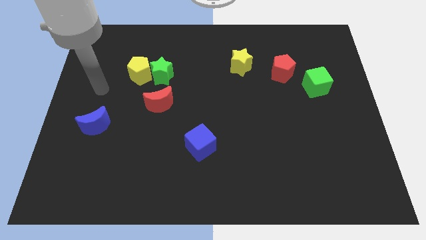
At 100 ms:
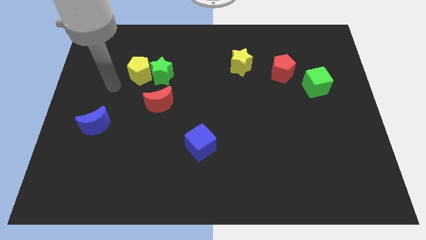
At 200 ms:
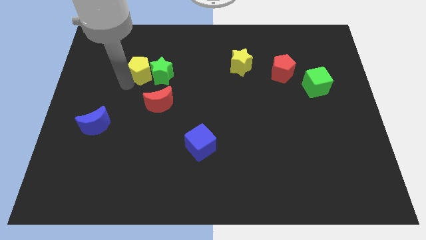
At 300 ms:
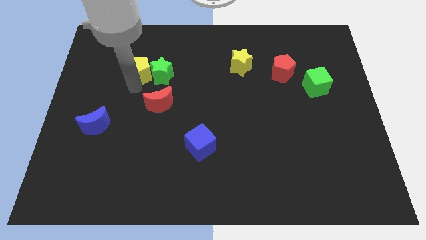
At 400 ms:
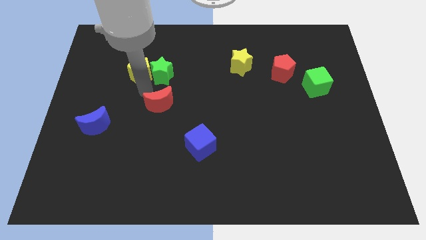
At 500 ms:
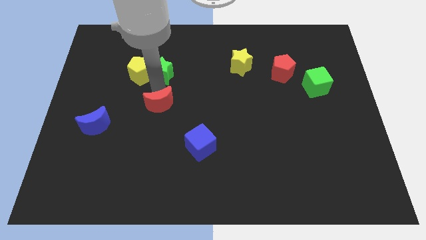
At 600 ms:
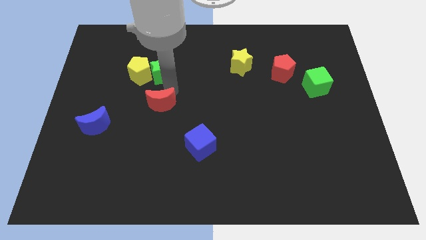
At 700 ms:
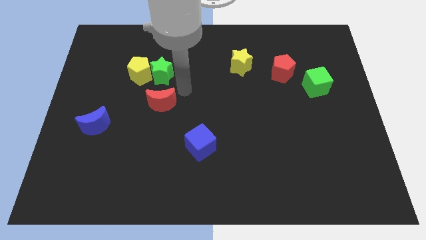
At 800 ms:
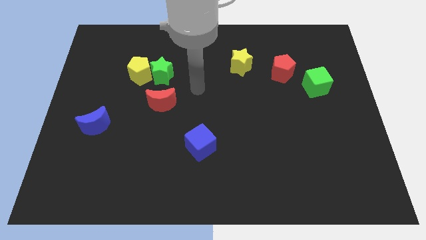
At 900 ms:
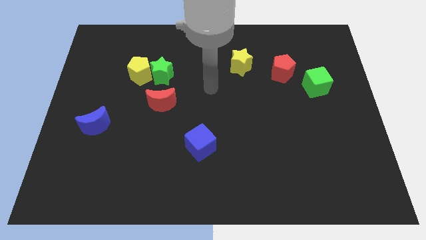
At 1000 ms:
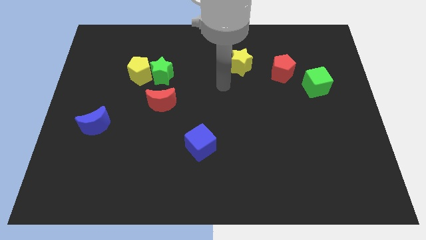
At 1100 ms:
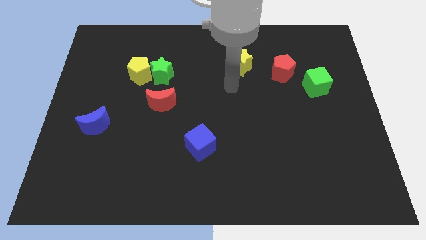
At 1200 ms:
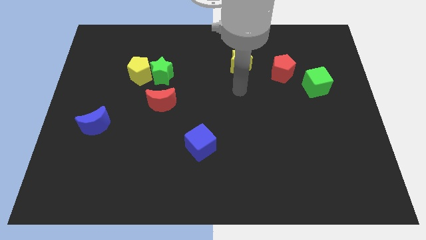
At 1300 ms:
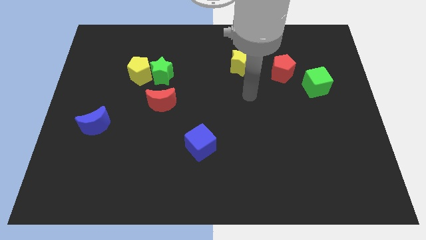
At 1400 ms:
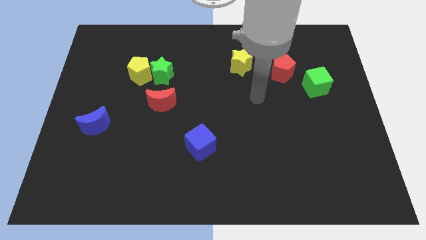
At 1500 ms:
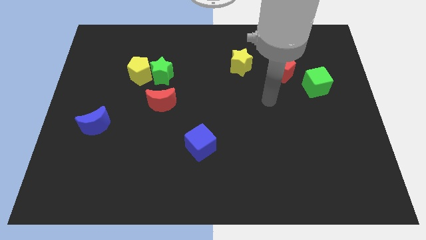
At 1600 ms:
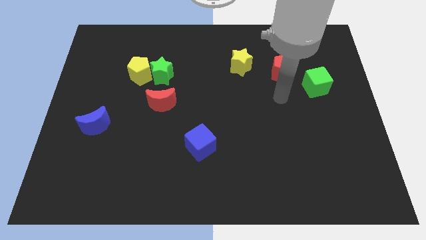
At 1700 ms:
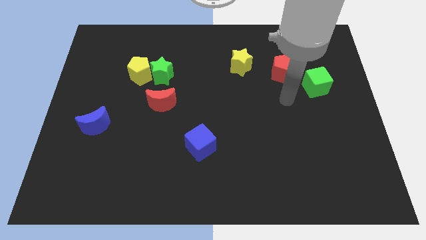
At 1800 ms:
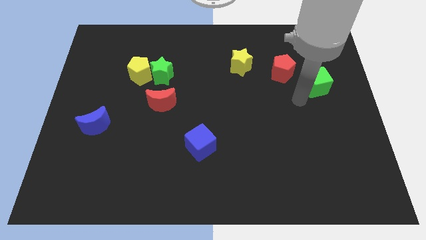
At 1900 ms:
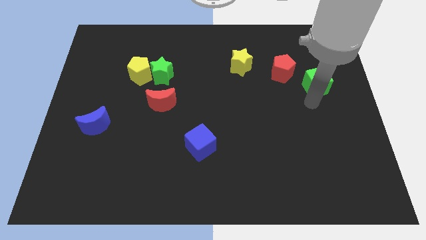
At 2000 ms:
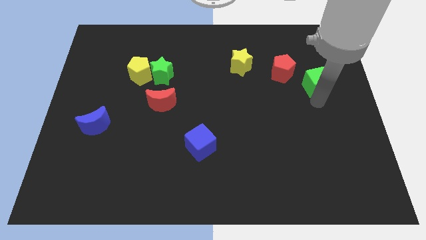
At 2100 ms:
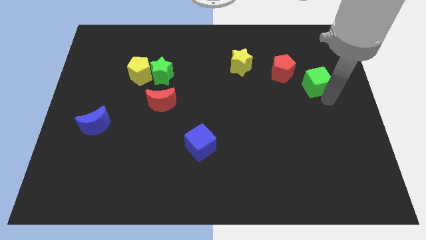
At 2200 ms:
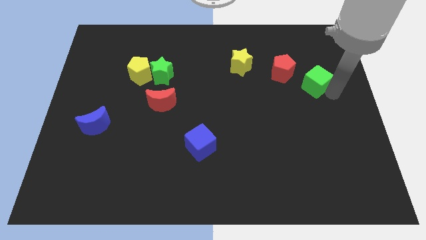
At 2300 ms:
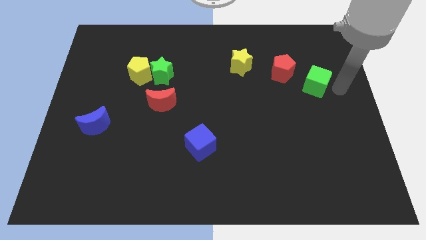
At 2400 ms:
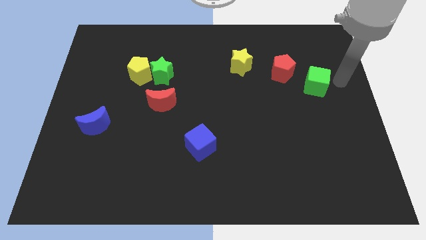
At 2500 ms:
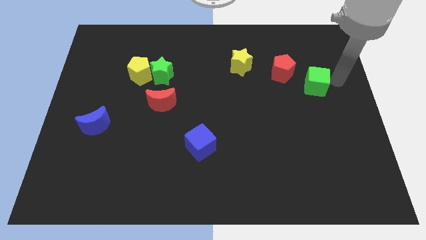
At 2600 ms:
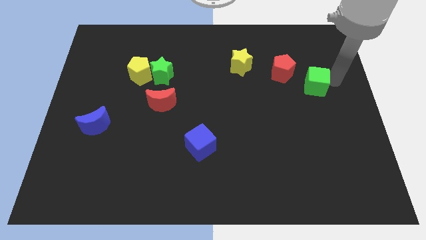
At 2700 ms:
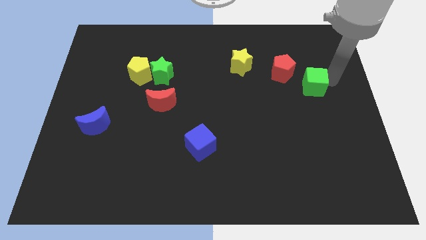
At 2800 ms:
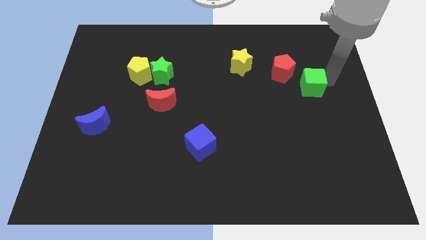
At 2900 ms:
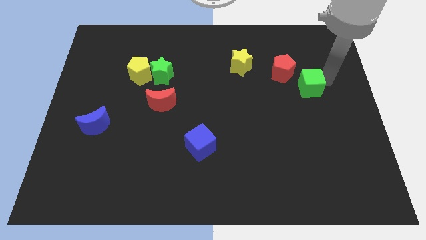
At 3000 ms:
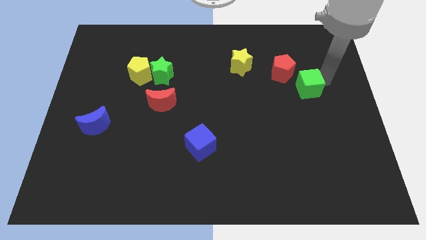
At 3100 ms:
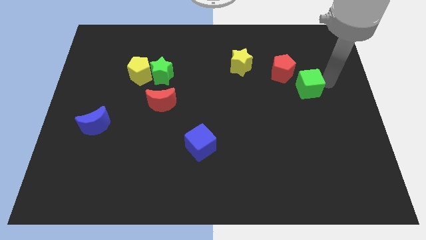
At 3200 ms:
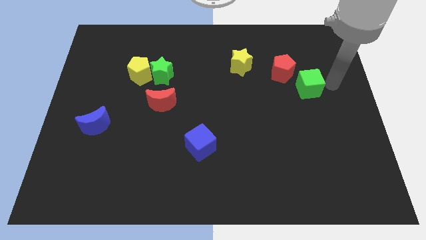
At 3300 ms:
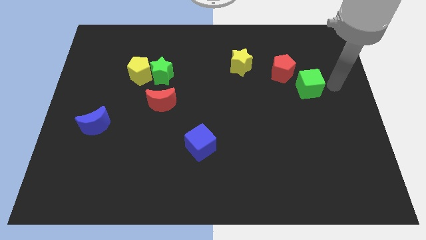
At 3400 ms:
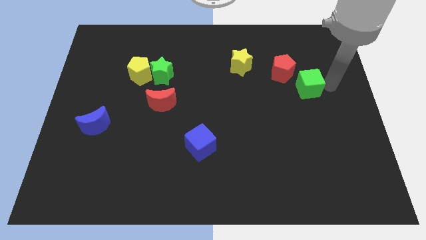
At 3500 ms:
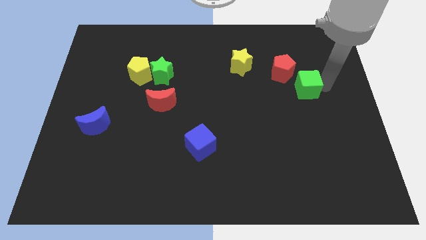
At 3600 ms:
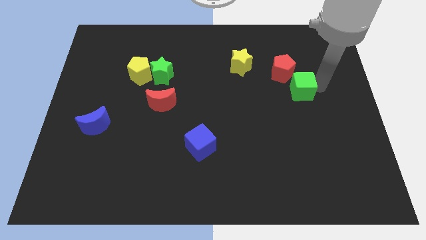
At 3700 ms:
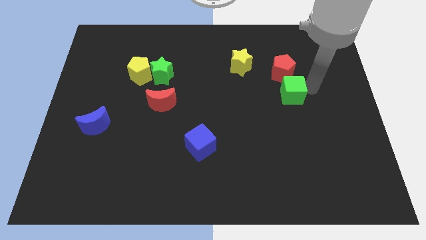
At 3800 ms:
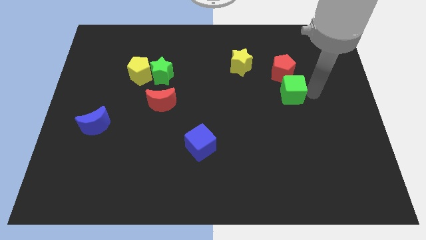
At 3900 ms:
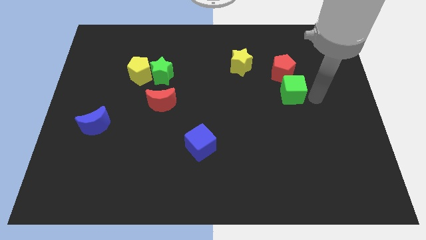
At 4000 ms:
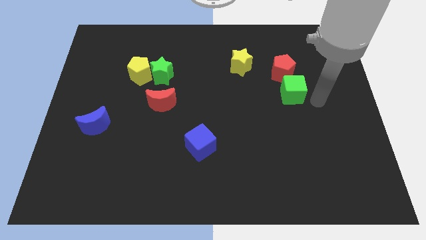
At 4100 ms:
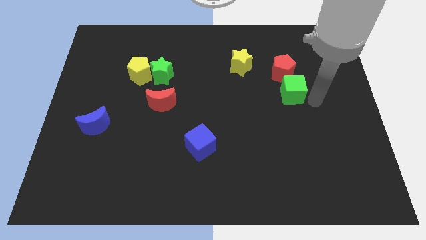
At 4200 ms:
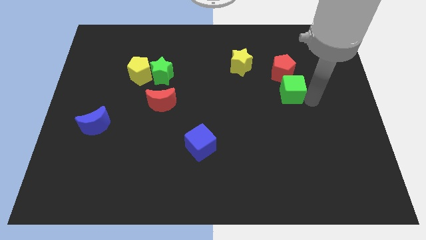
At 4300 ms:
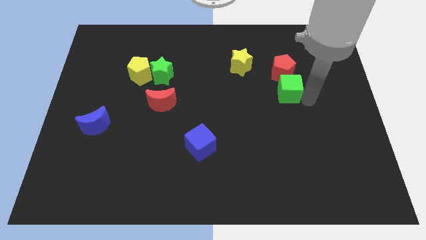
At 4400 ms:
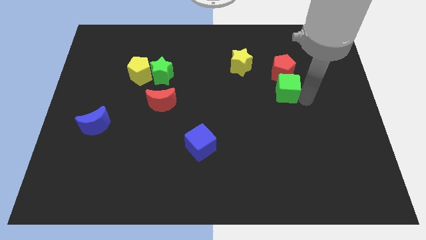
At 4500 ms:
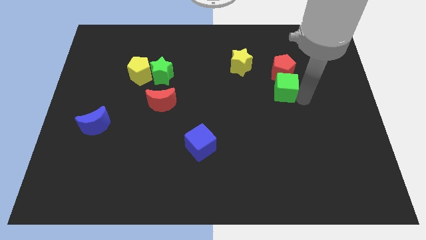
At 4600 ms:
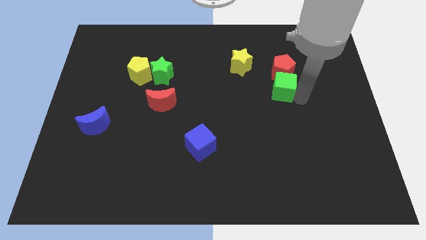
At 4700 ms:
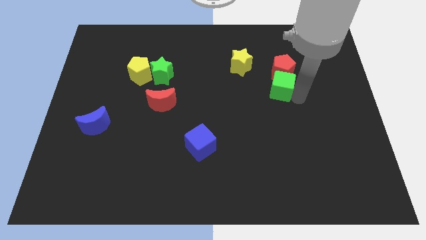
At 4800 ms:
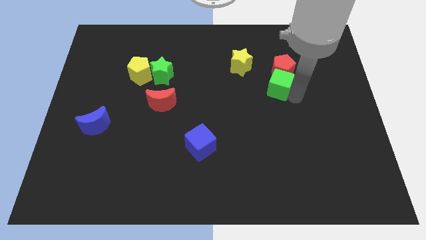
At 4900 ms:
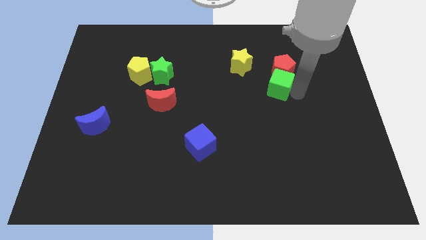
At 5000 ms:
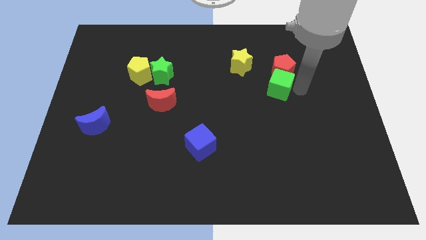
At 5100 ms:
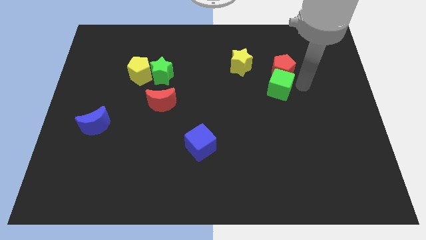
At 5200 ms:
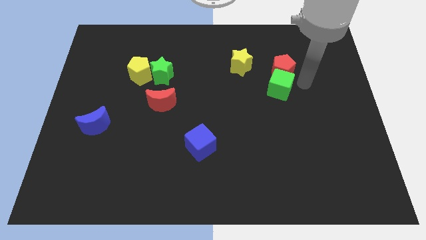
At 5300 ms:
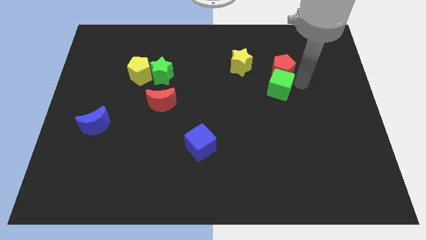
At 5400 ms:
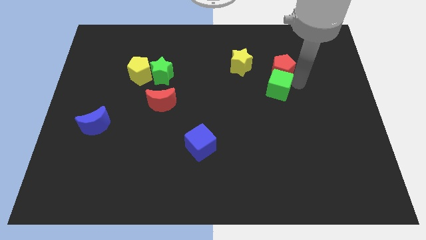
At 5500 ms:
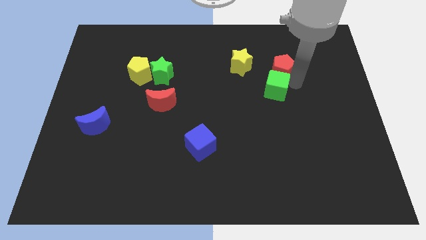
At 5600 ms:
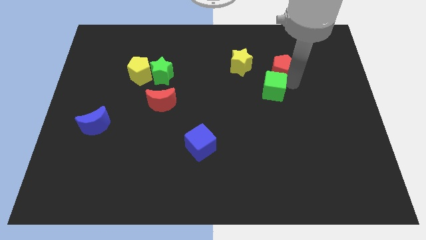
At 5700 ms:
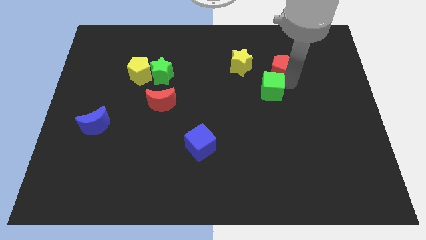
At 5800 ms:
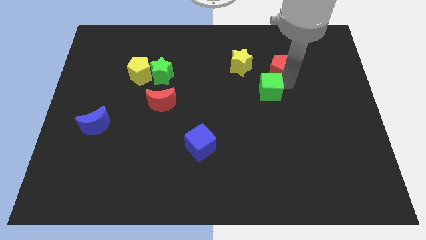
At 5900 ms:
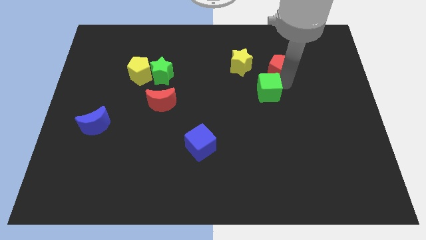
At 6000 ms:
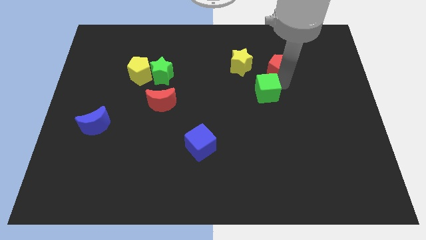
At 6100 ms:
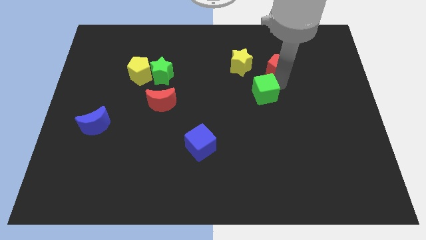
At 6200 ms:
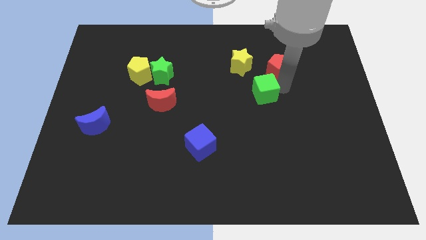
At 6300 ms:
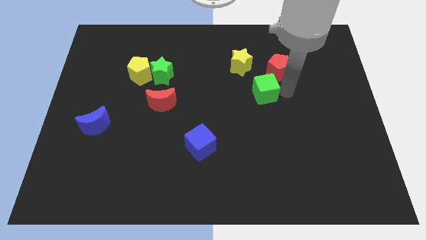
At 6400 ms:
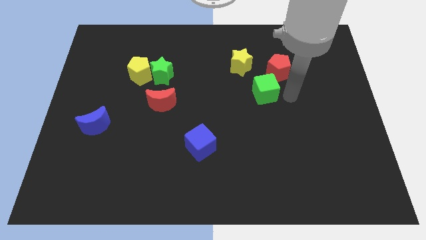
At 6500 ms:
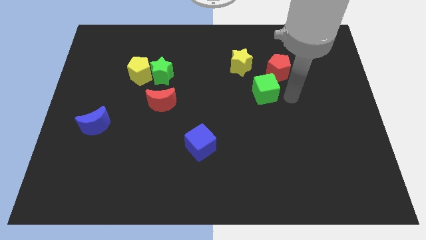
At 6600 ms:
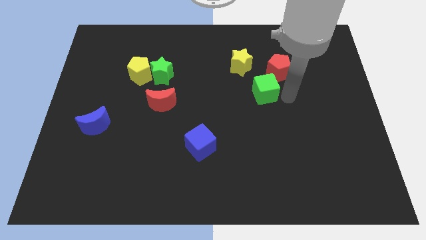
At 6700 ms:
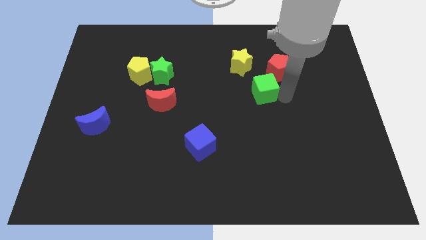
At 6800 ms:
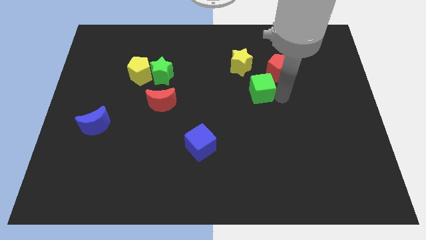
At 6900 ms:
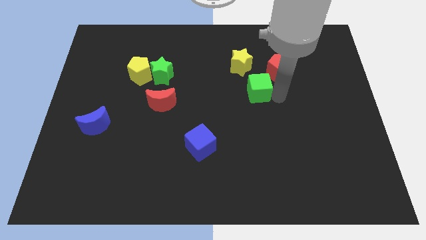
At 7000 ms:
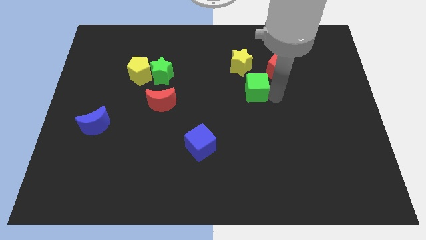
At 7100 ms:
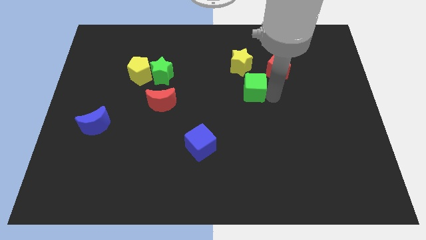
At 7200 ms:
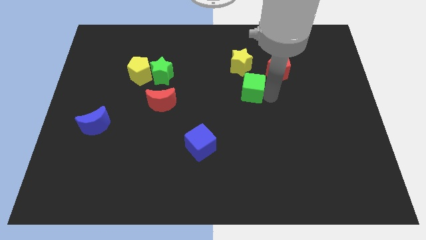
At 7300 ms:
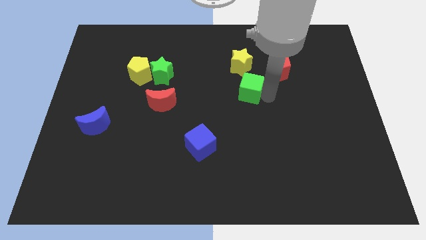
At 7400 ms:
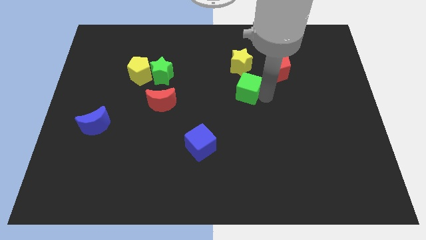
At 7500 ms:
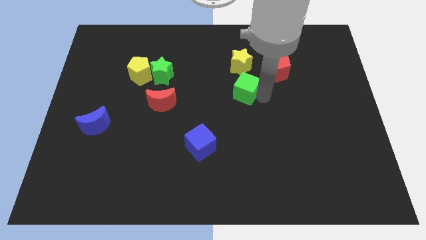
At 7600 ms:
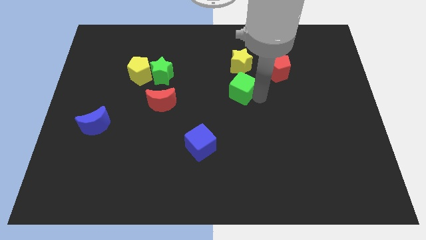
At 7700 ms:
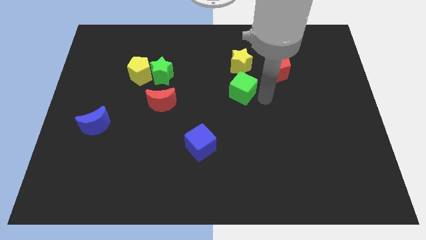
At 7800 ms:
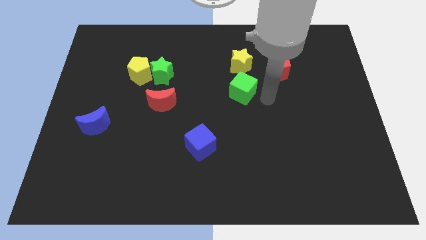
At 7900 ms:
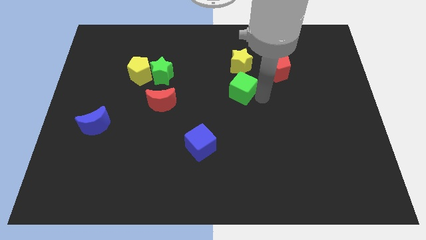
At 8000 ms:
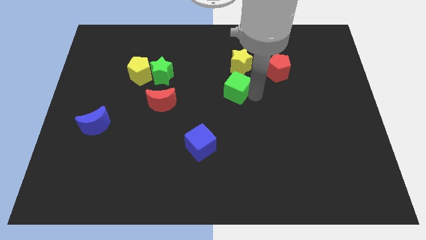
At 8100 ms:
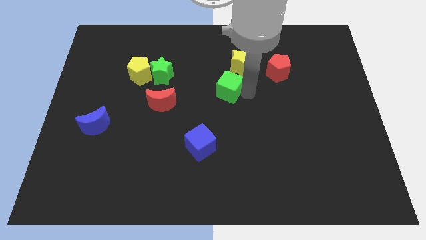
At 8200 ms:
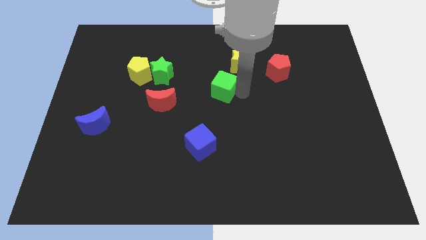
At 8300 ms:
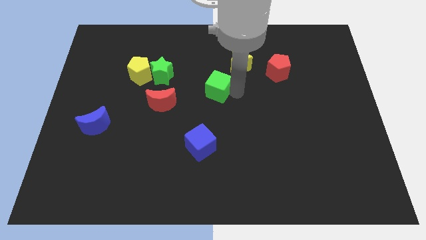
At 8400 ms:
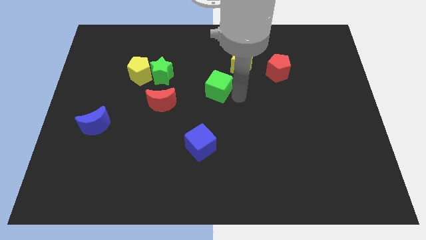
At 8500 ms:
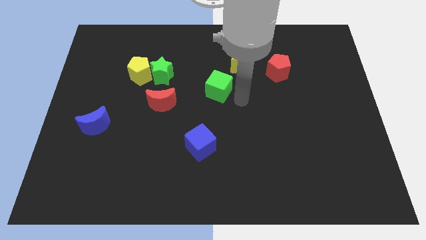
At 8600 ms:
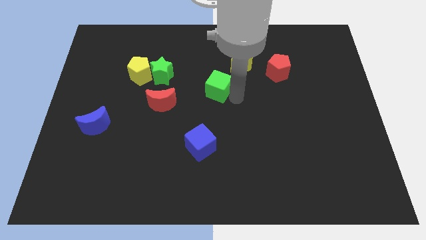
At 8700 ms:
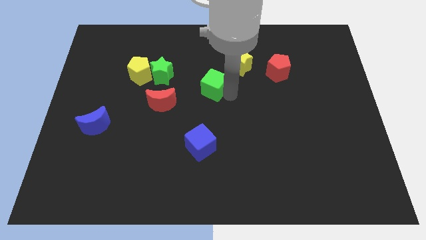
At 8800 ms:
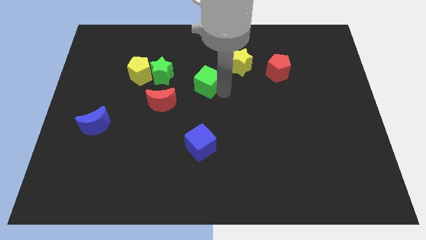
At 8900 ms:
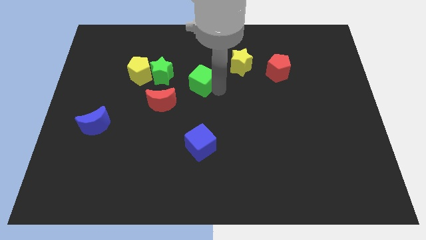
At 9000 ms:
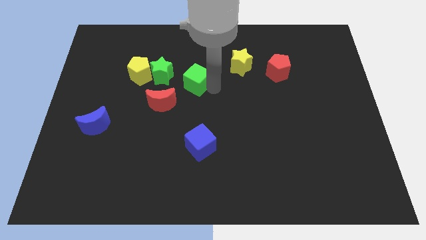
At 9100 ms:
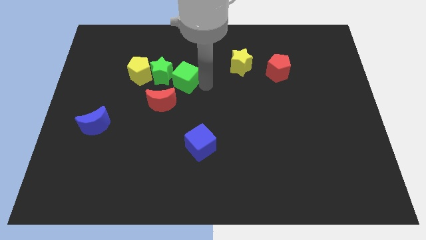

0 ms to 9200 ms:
move the green cube towards the green star
